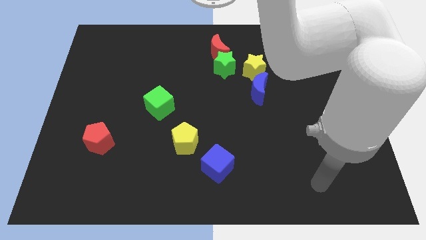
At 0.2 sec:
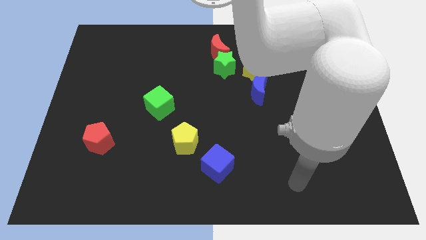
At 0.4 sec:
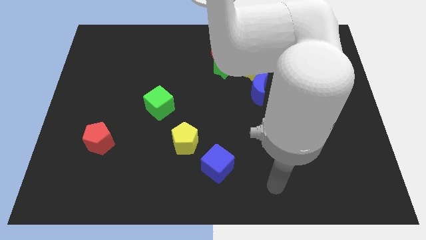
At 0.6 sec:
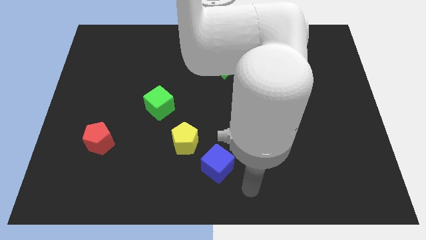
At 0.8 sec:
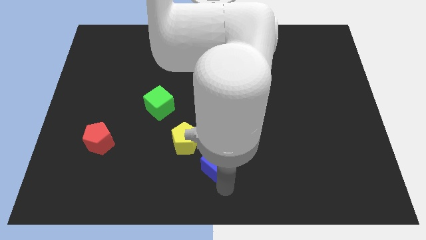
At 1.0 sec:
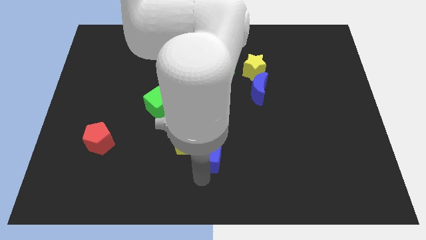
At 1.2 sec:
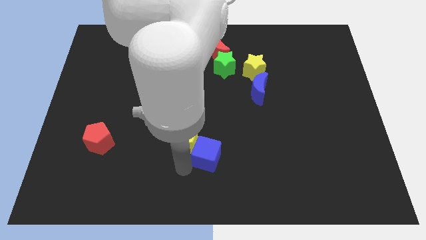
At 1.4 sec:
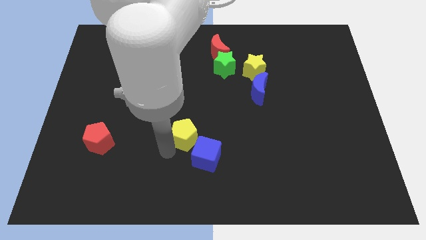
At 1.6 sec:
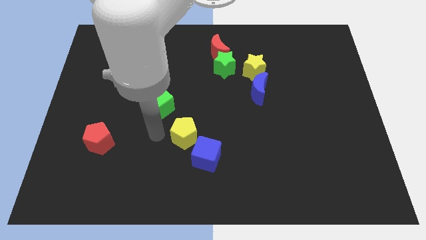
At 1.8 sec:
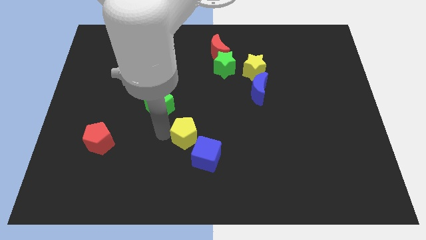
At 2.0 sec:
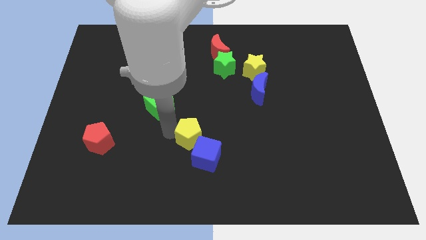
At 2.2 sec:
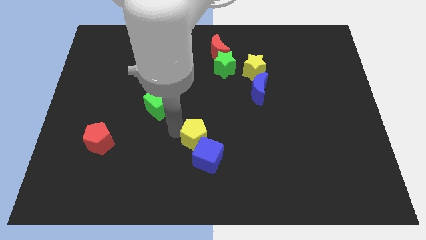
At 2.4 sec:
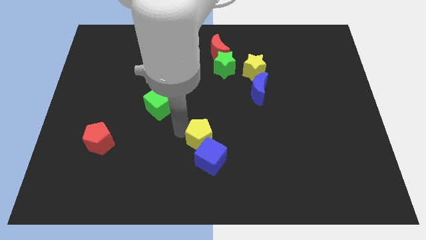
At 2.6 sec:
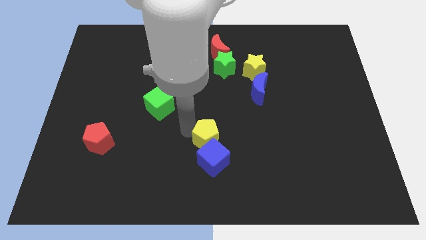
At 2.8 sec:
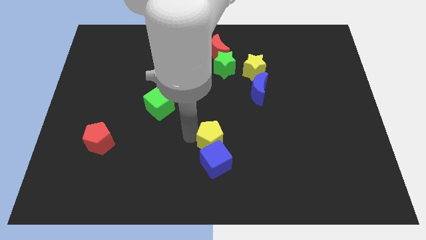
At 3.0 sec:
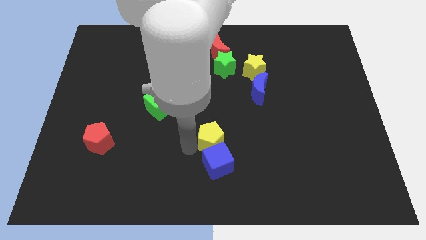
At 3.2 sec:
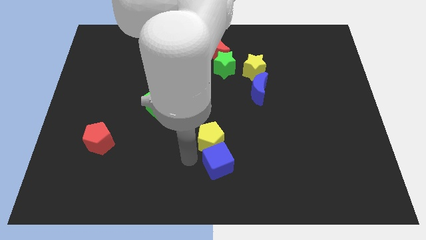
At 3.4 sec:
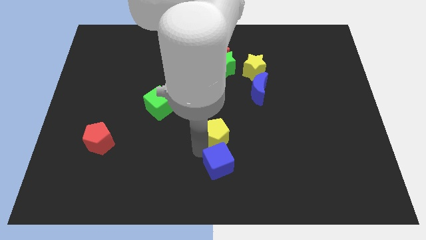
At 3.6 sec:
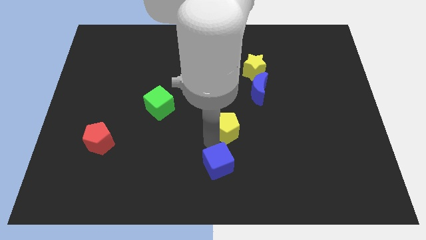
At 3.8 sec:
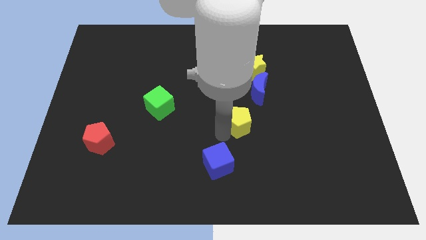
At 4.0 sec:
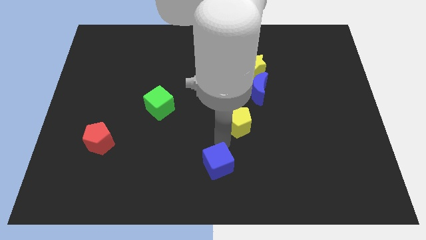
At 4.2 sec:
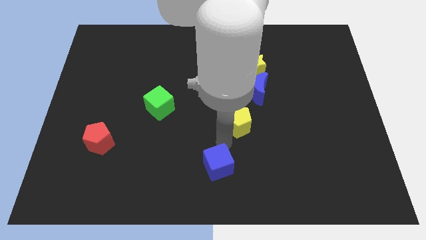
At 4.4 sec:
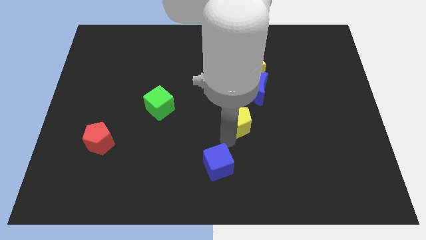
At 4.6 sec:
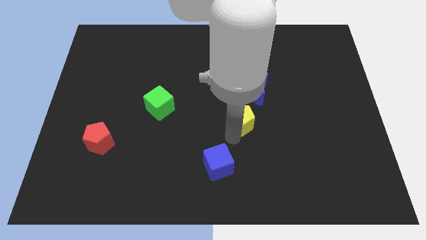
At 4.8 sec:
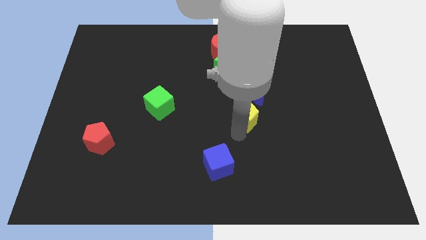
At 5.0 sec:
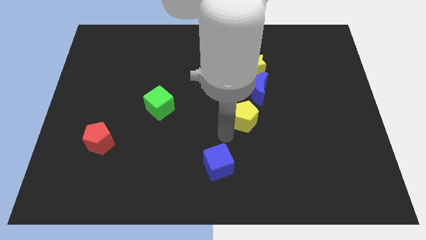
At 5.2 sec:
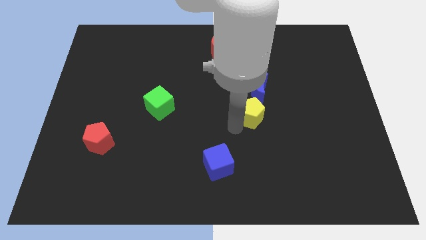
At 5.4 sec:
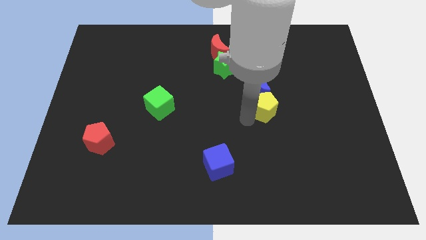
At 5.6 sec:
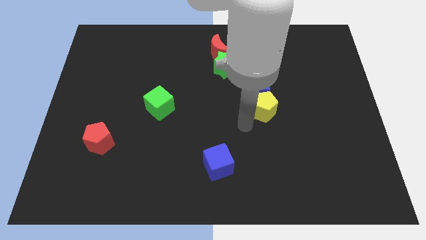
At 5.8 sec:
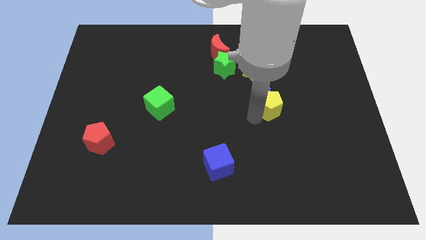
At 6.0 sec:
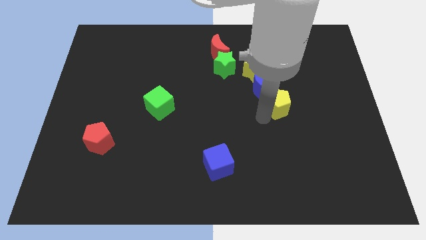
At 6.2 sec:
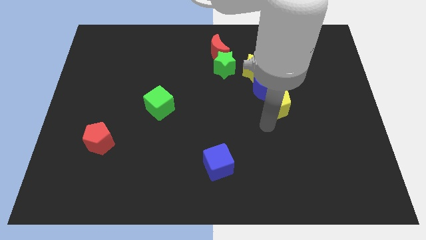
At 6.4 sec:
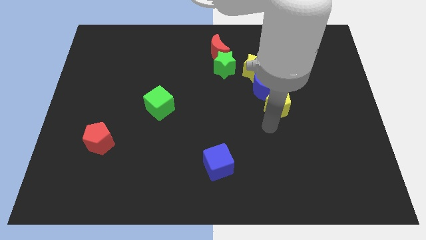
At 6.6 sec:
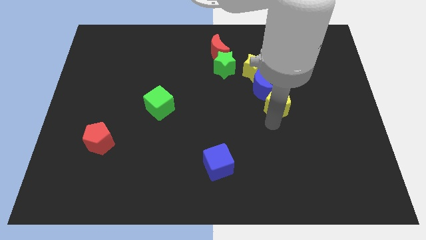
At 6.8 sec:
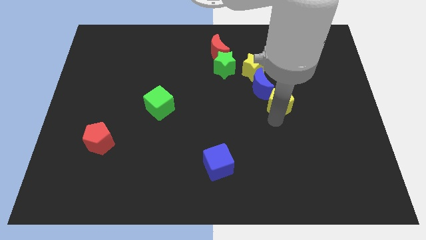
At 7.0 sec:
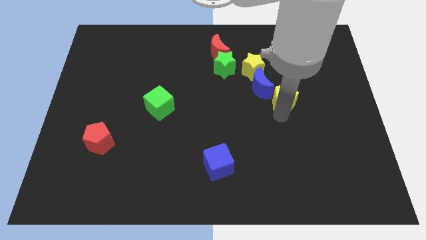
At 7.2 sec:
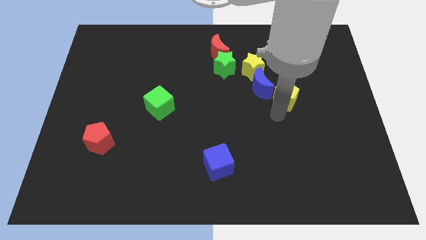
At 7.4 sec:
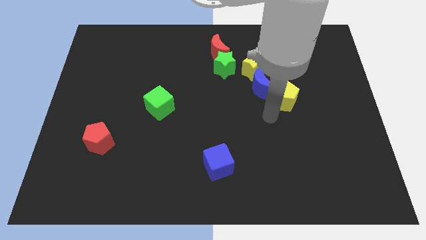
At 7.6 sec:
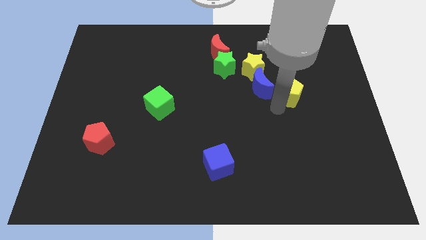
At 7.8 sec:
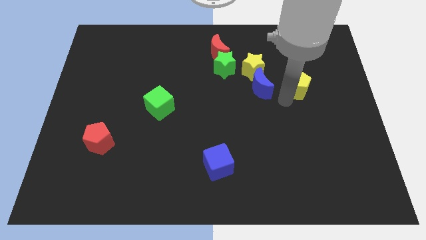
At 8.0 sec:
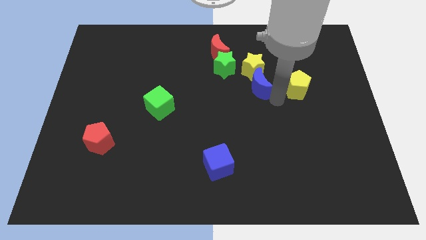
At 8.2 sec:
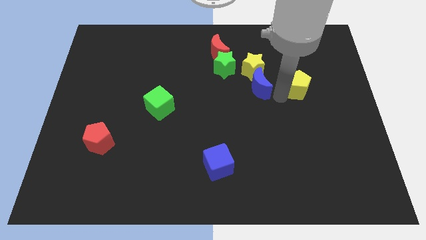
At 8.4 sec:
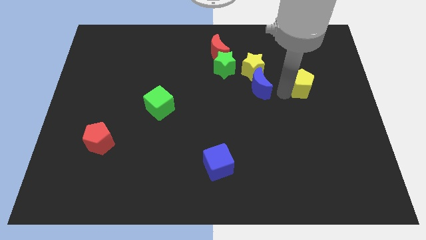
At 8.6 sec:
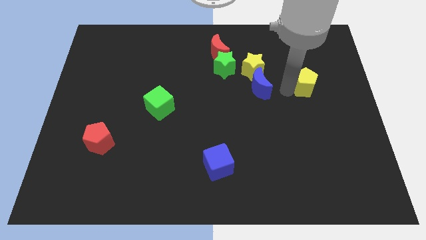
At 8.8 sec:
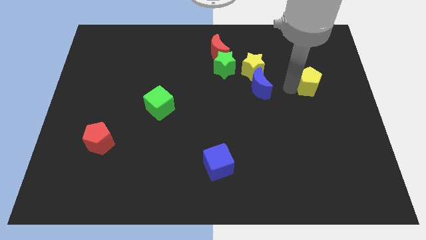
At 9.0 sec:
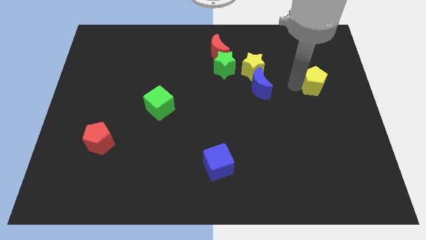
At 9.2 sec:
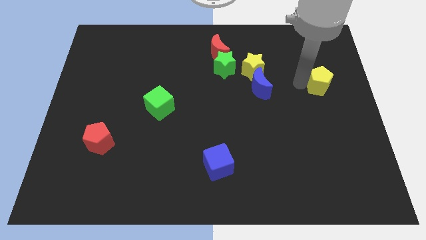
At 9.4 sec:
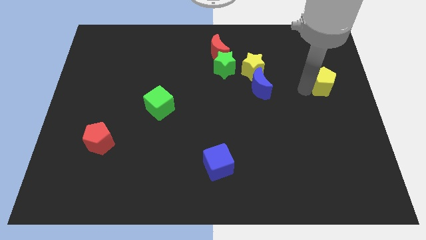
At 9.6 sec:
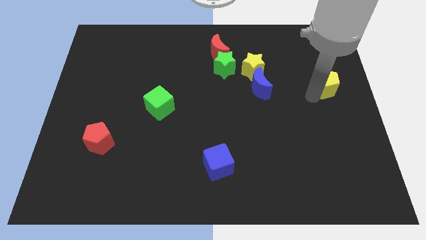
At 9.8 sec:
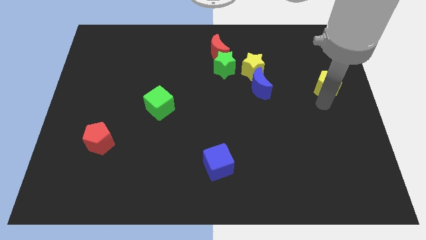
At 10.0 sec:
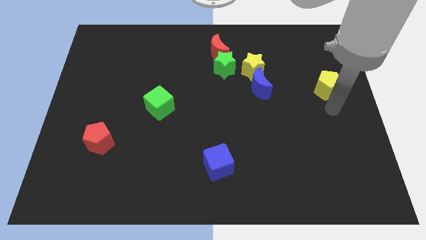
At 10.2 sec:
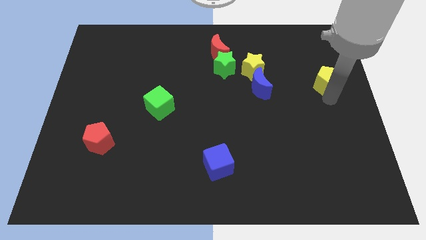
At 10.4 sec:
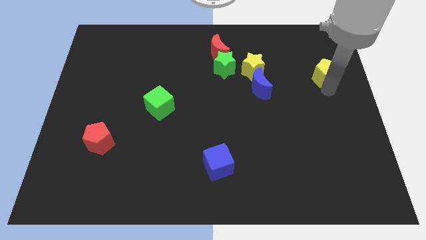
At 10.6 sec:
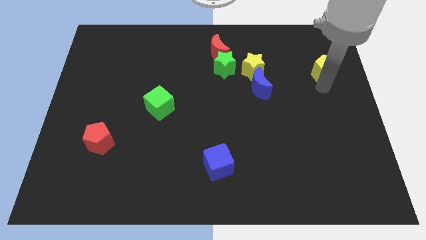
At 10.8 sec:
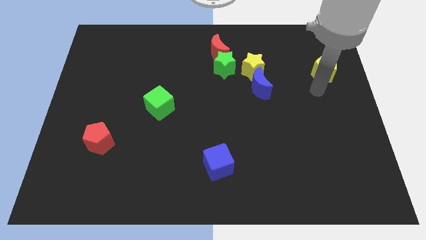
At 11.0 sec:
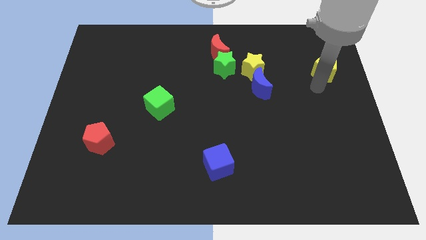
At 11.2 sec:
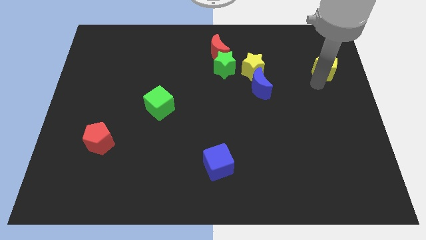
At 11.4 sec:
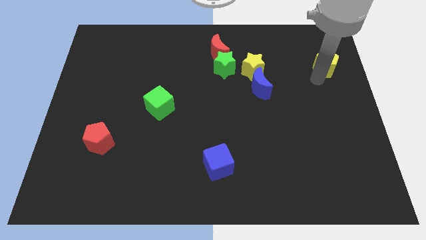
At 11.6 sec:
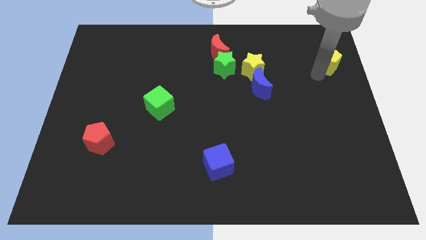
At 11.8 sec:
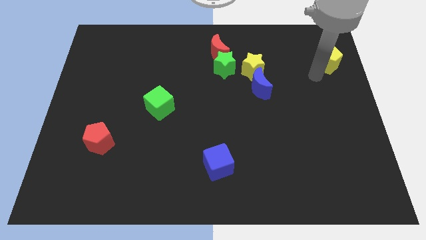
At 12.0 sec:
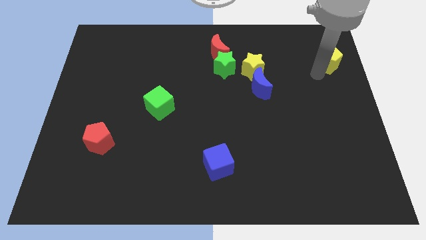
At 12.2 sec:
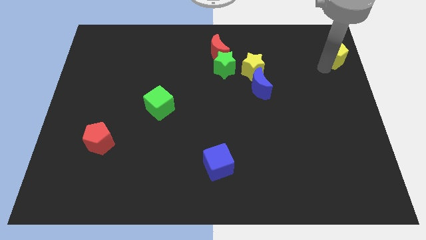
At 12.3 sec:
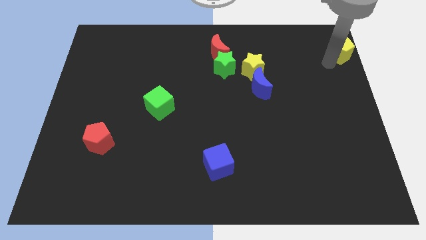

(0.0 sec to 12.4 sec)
put the yellow pentagon to the top right corner

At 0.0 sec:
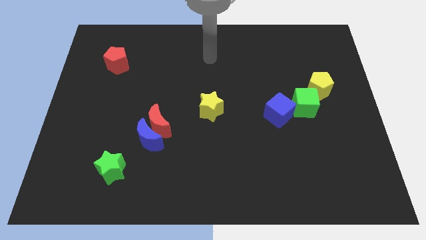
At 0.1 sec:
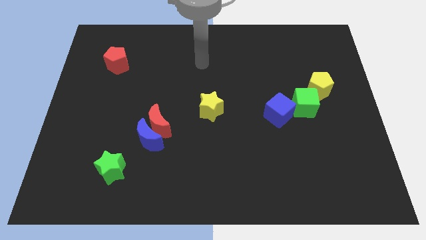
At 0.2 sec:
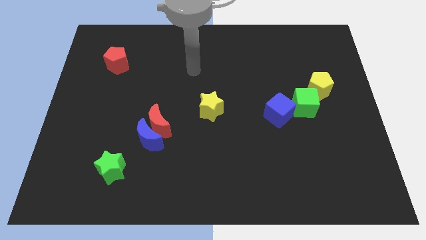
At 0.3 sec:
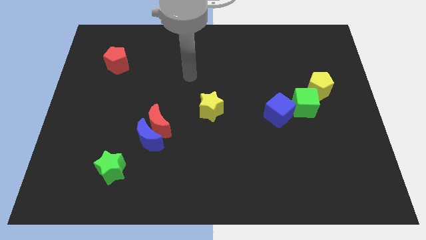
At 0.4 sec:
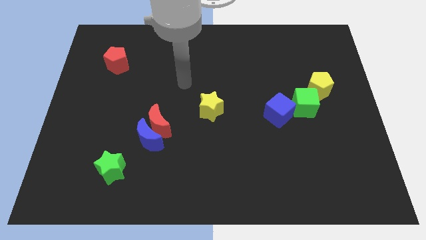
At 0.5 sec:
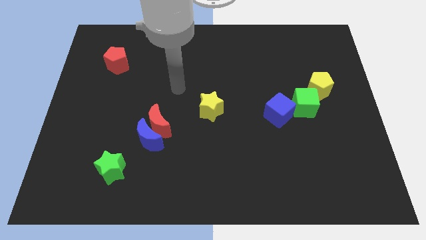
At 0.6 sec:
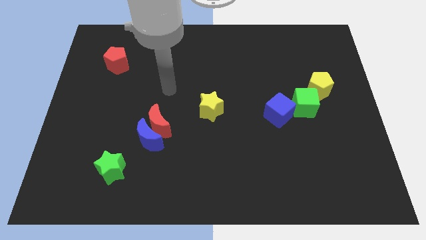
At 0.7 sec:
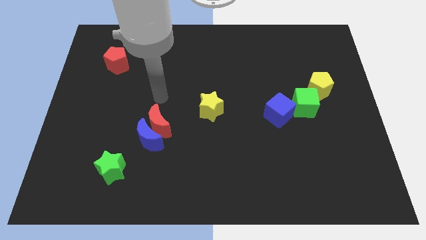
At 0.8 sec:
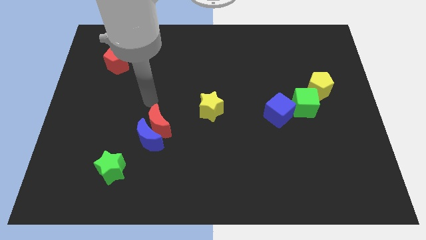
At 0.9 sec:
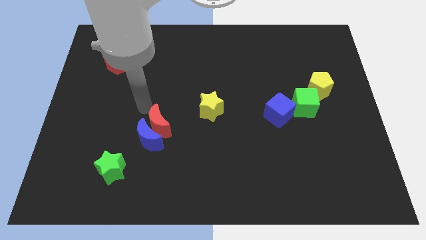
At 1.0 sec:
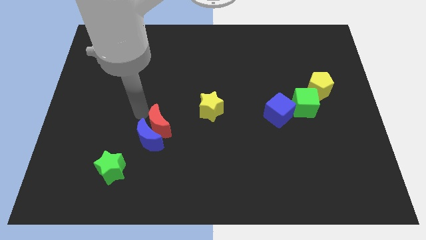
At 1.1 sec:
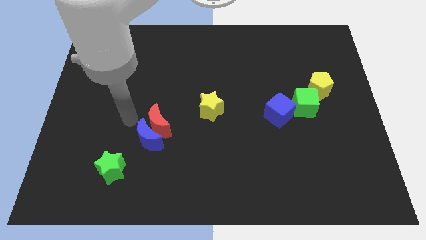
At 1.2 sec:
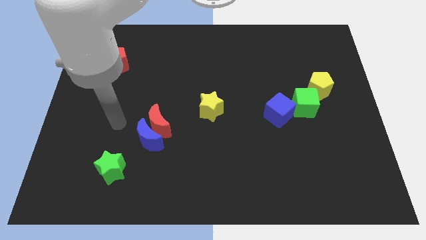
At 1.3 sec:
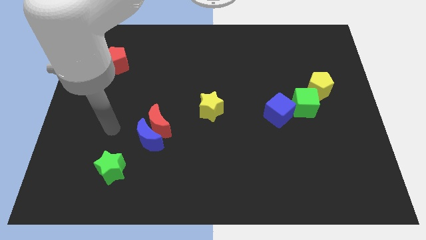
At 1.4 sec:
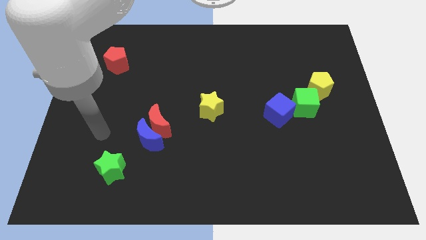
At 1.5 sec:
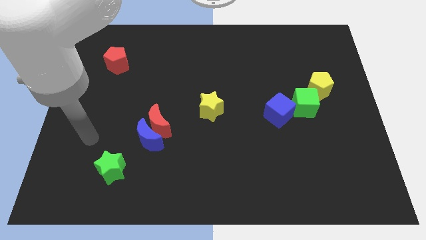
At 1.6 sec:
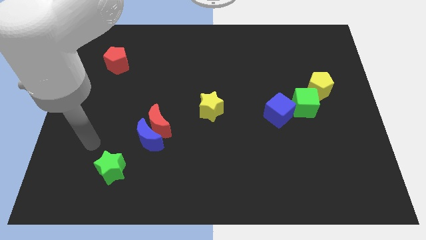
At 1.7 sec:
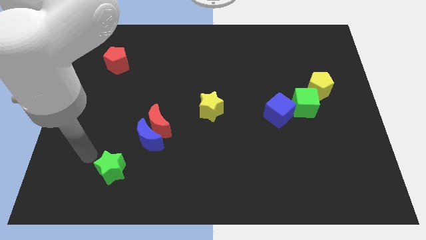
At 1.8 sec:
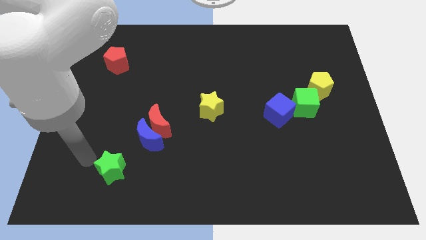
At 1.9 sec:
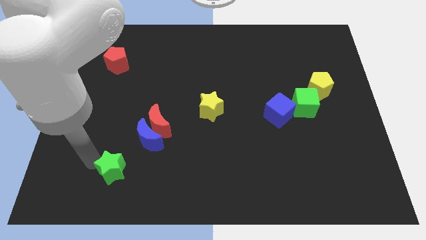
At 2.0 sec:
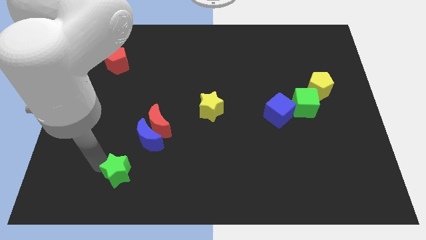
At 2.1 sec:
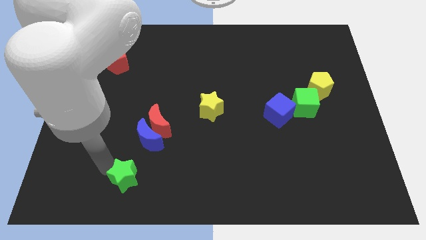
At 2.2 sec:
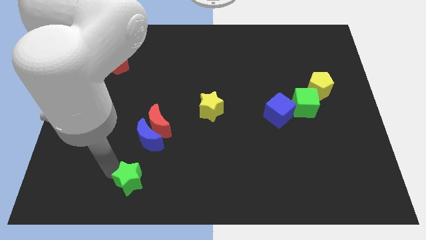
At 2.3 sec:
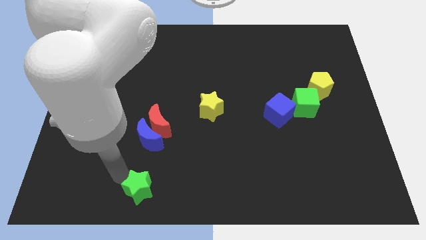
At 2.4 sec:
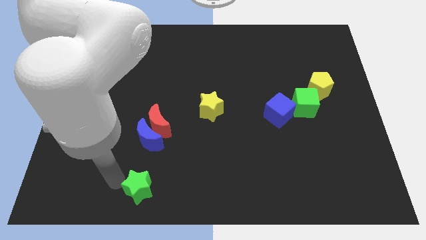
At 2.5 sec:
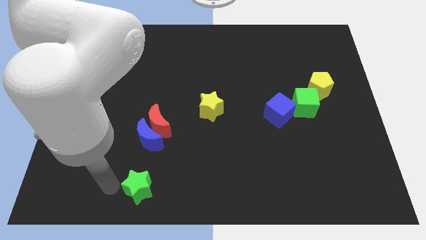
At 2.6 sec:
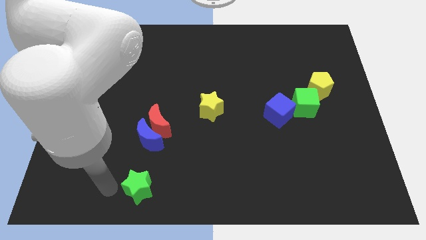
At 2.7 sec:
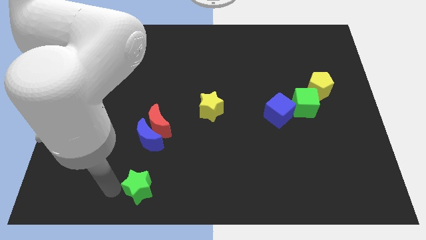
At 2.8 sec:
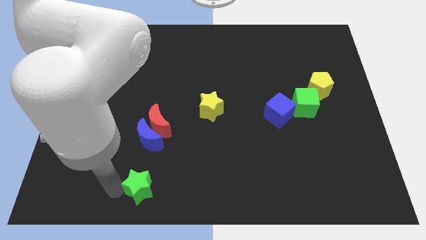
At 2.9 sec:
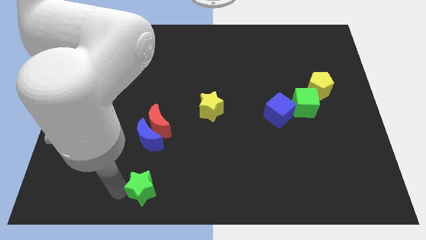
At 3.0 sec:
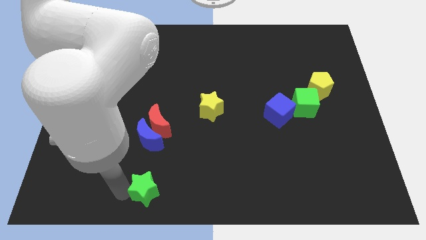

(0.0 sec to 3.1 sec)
slide the green star to the bottom
